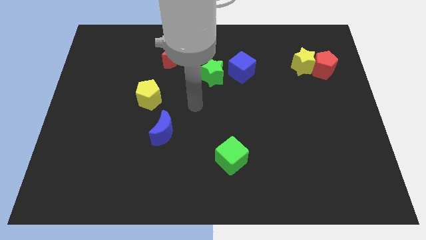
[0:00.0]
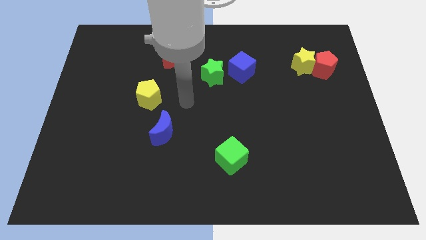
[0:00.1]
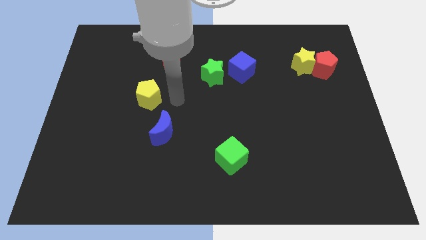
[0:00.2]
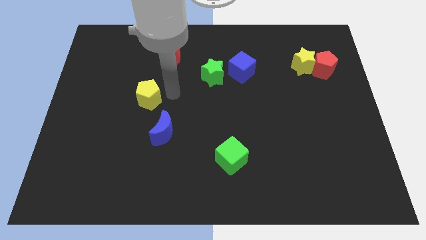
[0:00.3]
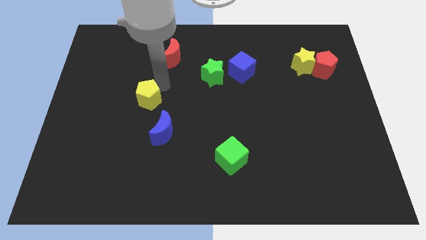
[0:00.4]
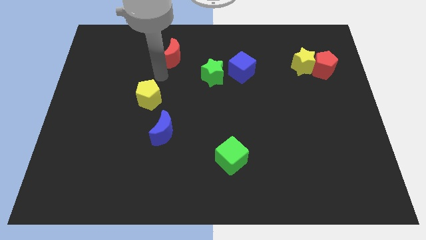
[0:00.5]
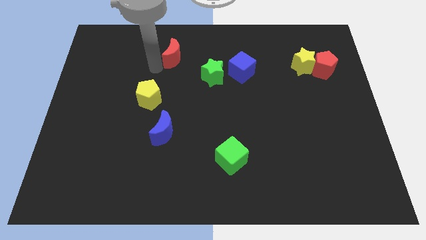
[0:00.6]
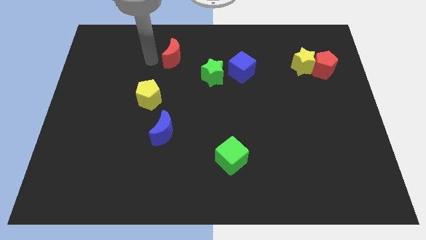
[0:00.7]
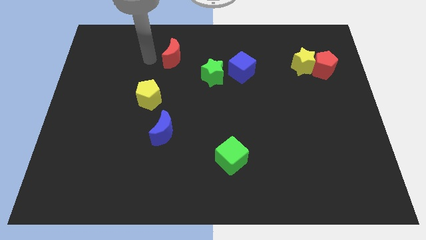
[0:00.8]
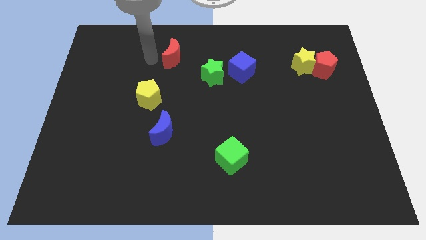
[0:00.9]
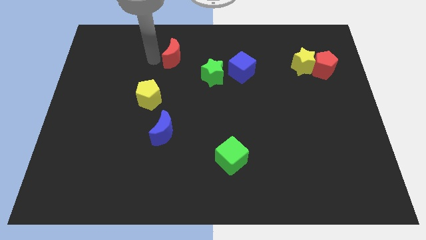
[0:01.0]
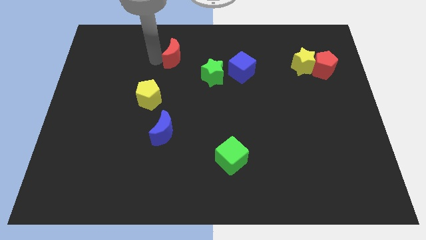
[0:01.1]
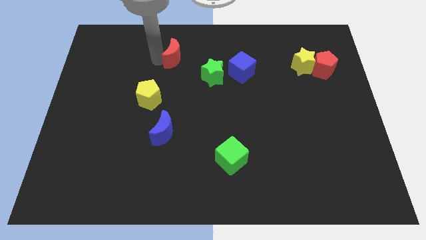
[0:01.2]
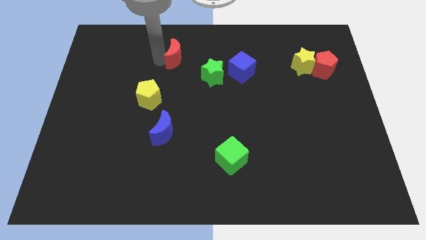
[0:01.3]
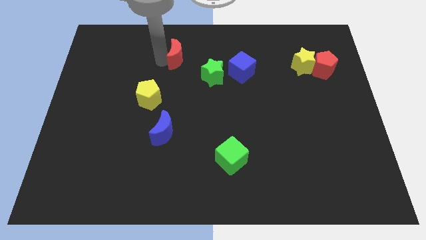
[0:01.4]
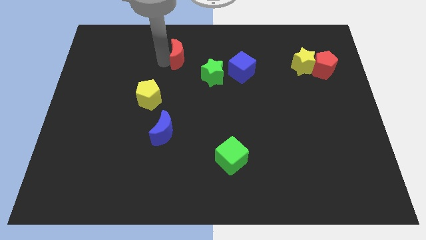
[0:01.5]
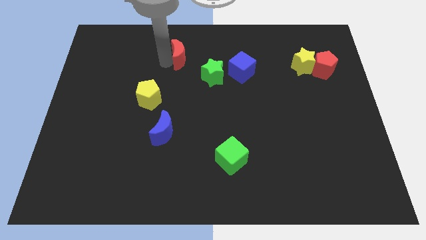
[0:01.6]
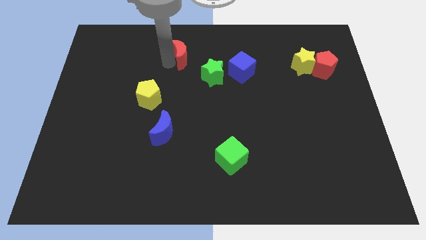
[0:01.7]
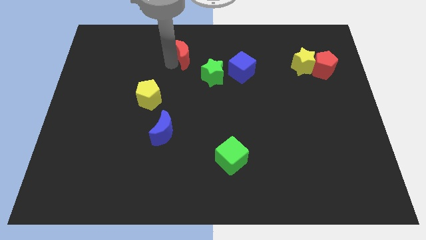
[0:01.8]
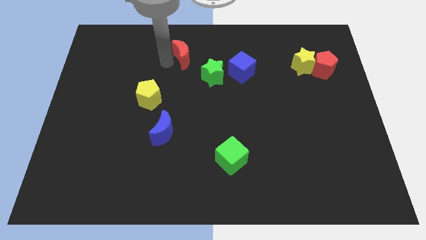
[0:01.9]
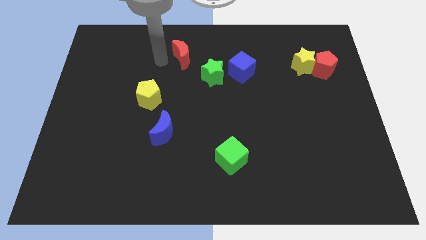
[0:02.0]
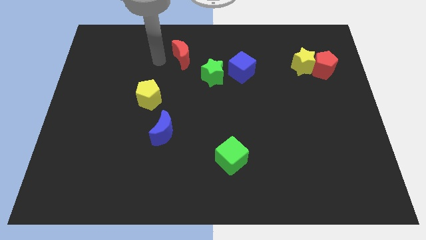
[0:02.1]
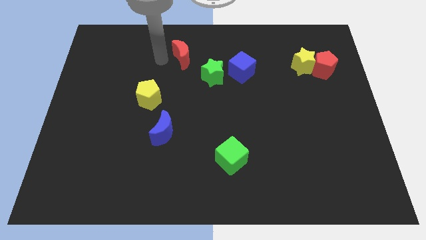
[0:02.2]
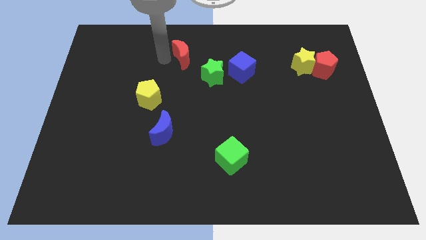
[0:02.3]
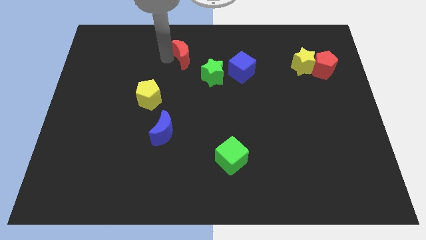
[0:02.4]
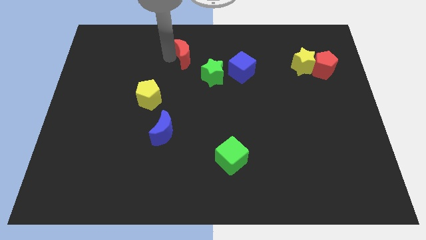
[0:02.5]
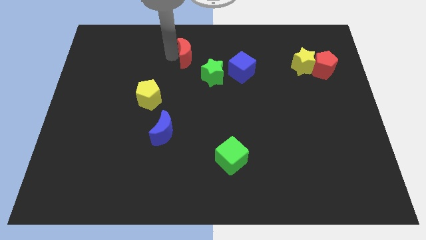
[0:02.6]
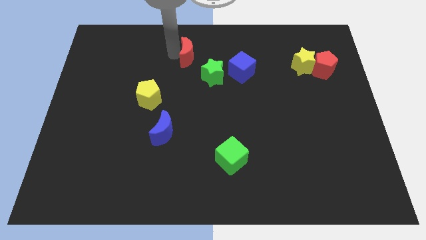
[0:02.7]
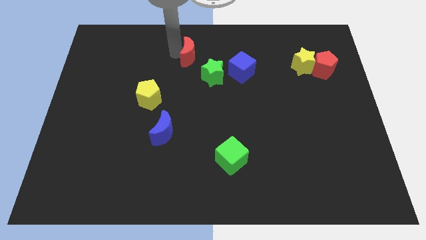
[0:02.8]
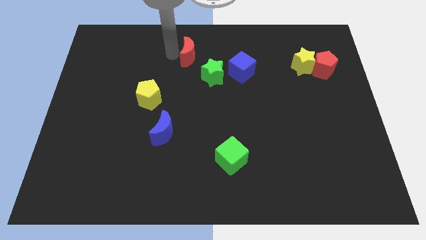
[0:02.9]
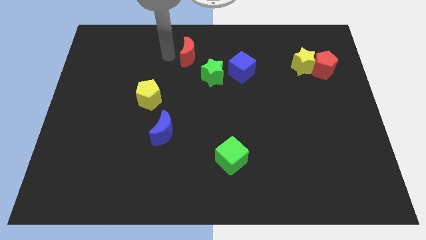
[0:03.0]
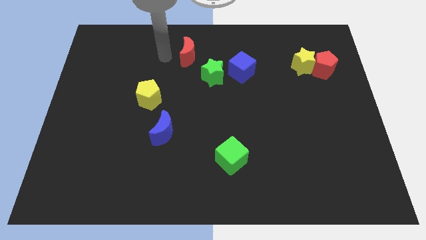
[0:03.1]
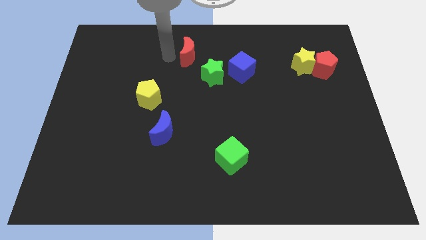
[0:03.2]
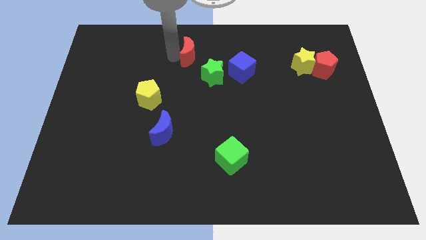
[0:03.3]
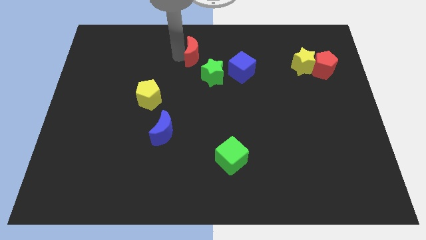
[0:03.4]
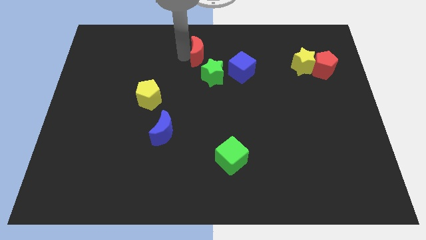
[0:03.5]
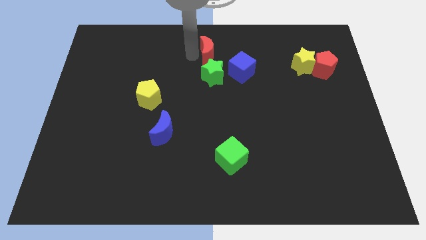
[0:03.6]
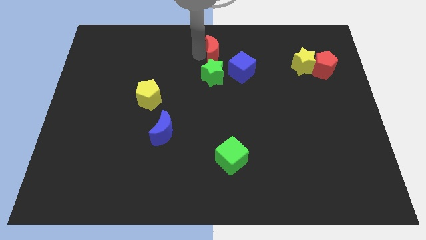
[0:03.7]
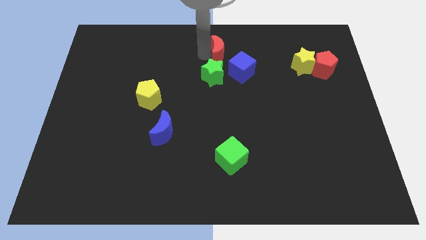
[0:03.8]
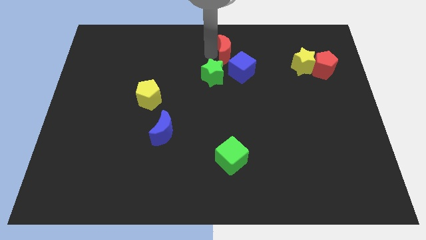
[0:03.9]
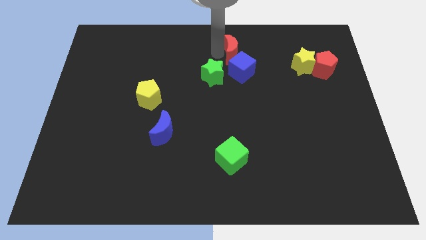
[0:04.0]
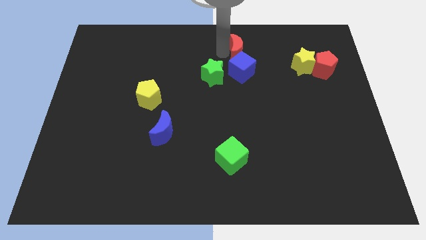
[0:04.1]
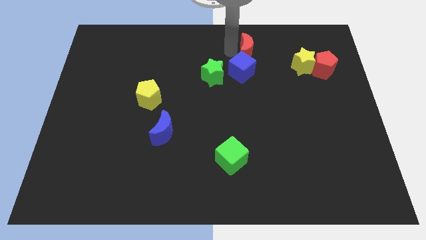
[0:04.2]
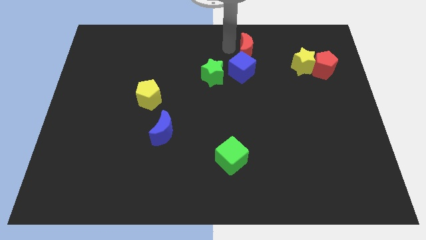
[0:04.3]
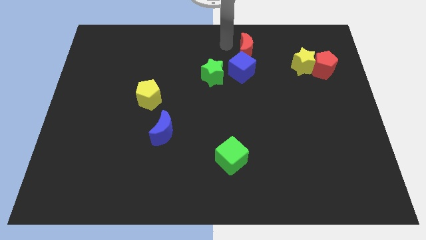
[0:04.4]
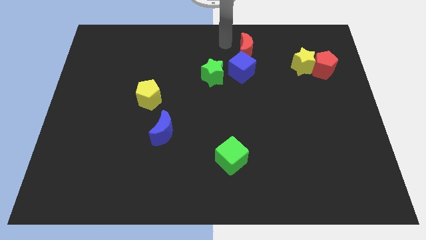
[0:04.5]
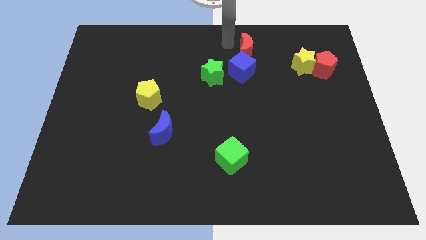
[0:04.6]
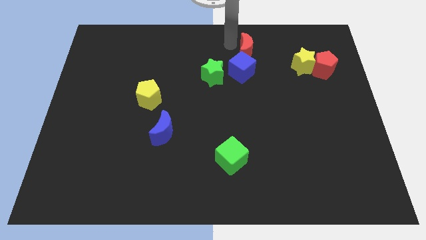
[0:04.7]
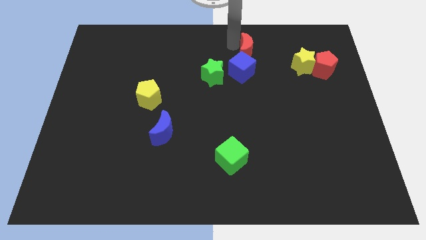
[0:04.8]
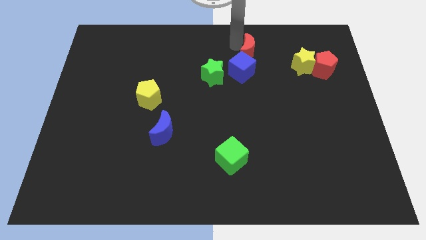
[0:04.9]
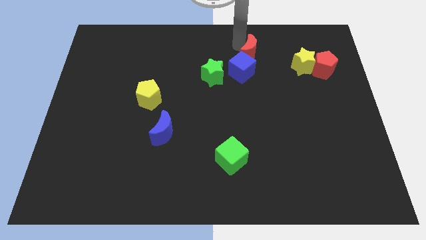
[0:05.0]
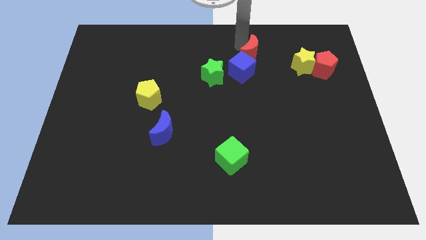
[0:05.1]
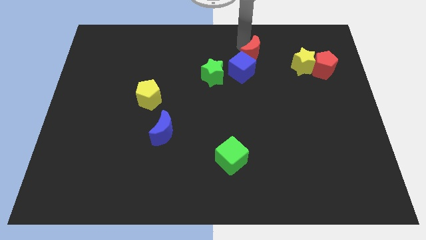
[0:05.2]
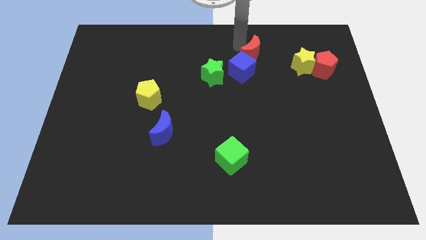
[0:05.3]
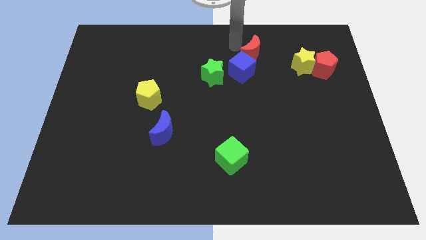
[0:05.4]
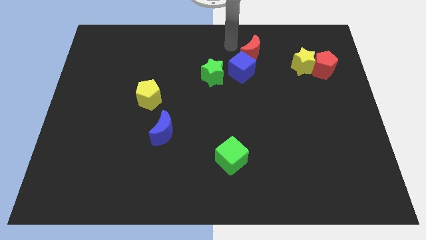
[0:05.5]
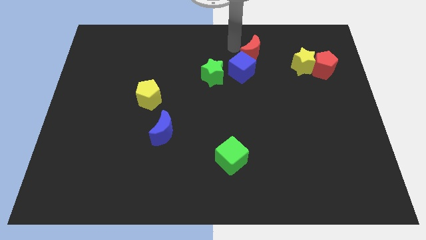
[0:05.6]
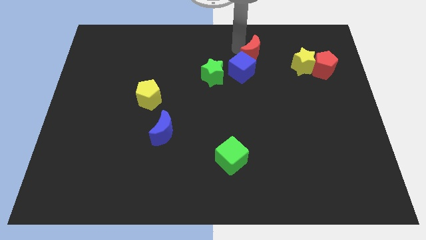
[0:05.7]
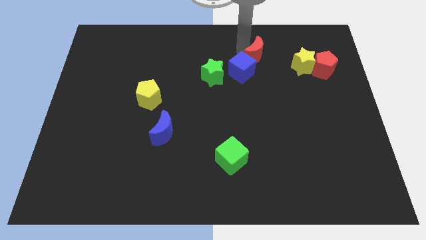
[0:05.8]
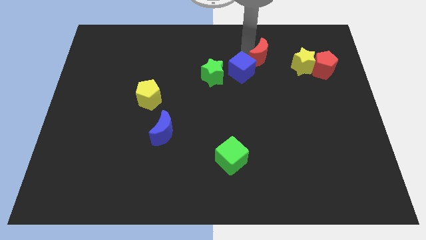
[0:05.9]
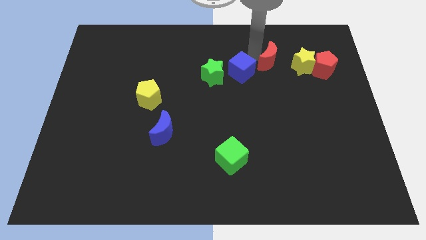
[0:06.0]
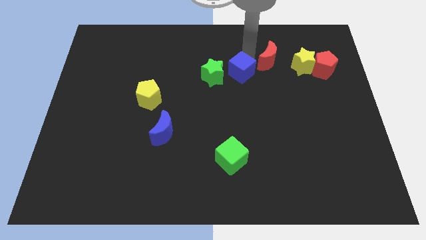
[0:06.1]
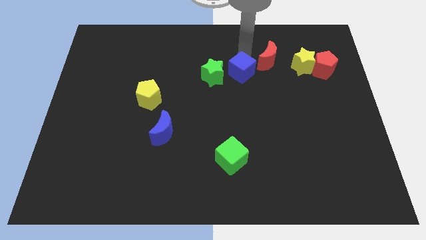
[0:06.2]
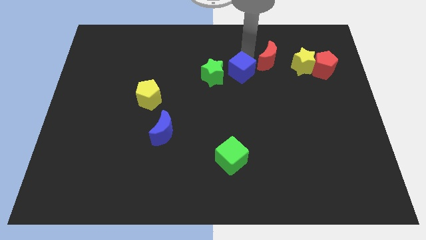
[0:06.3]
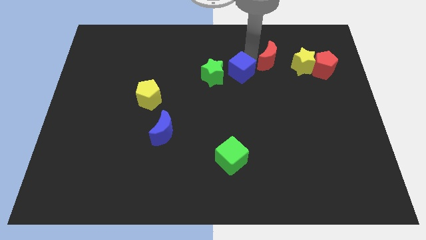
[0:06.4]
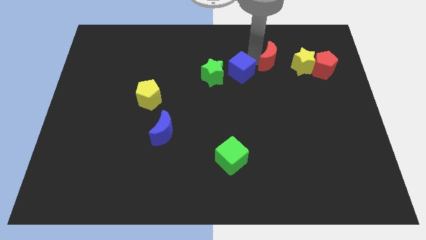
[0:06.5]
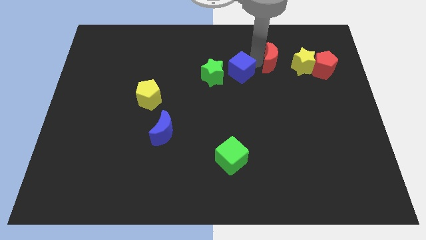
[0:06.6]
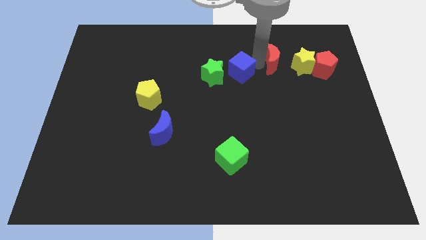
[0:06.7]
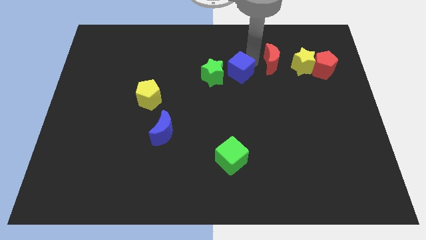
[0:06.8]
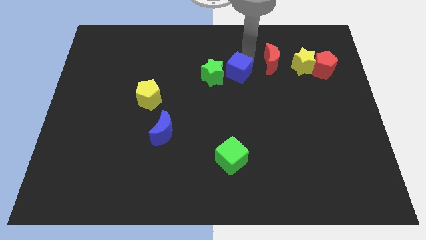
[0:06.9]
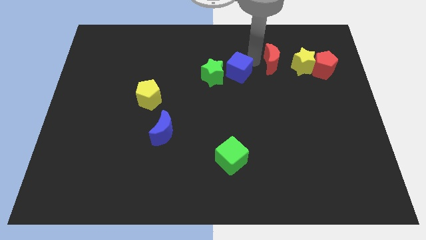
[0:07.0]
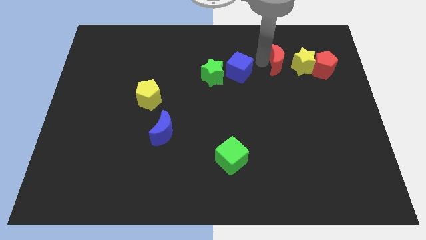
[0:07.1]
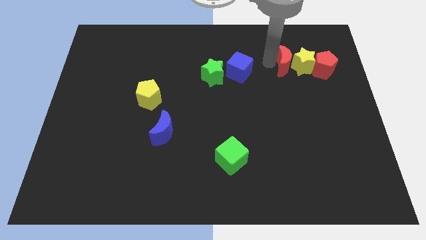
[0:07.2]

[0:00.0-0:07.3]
put the red moon close to the yellow star

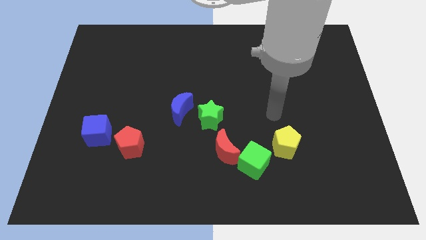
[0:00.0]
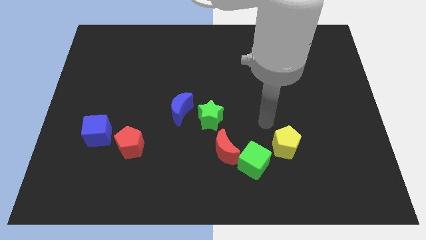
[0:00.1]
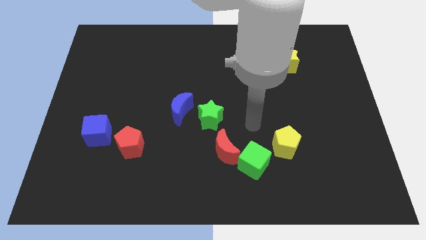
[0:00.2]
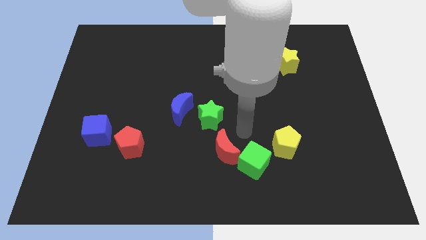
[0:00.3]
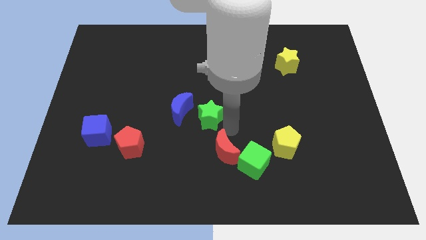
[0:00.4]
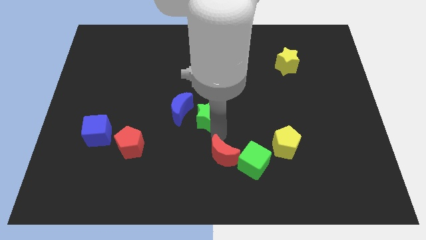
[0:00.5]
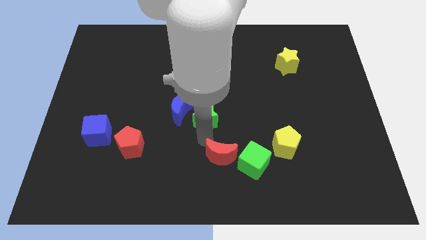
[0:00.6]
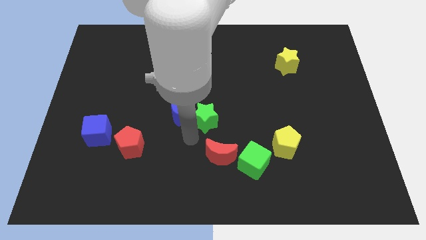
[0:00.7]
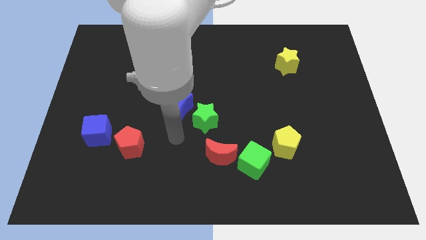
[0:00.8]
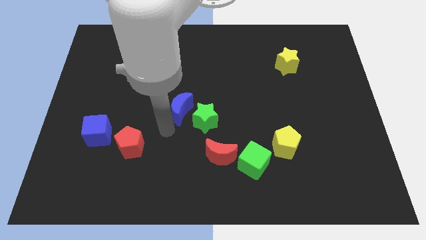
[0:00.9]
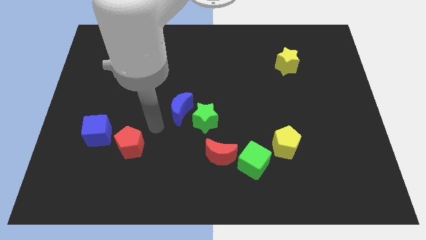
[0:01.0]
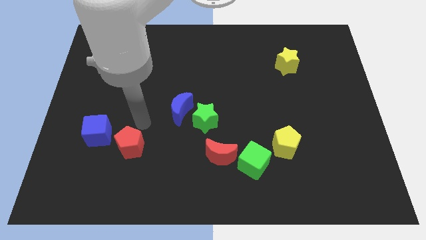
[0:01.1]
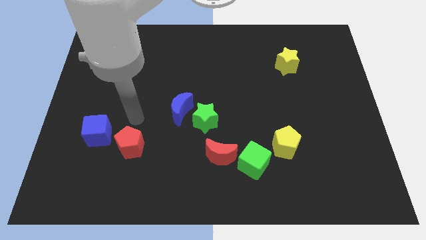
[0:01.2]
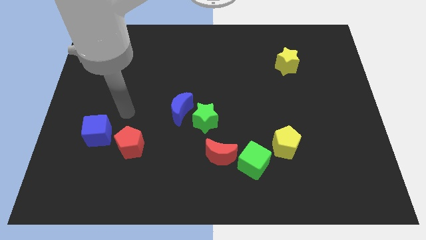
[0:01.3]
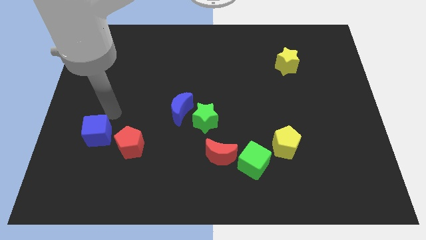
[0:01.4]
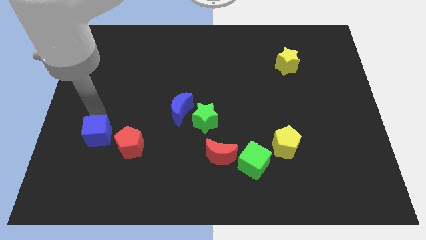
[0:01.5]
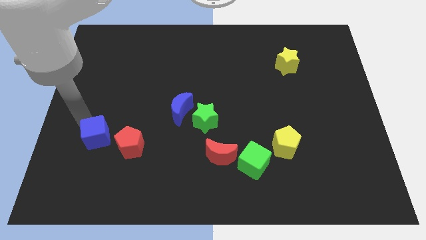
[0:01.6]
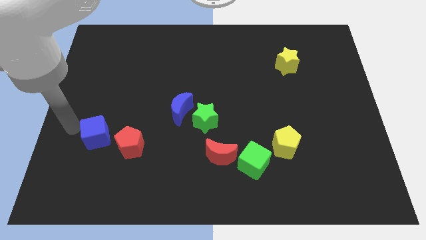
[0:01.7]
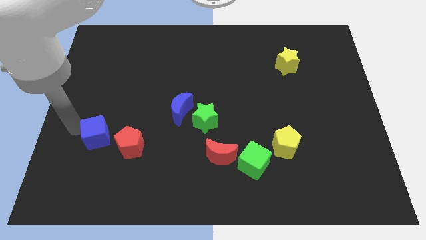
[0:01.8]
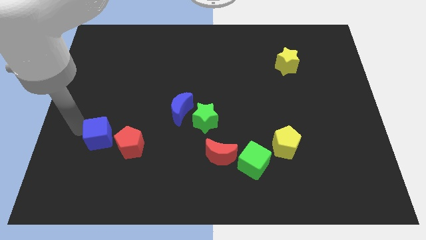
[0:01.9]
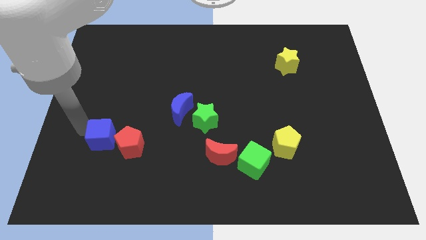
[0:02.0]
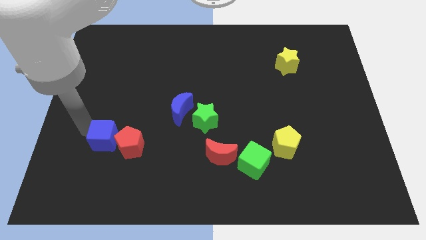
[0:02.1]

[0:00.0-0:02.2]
move the blue cube next to the red pentagon
